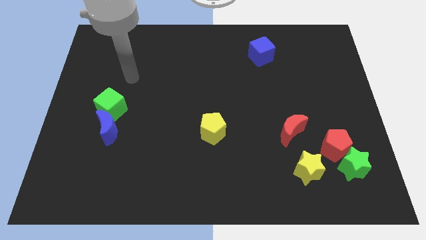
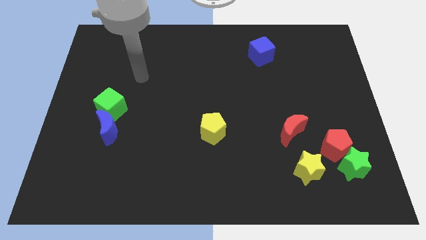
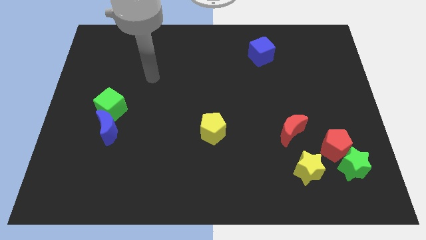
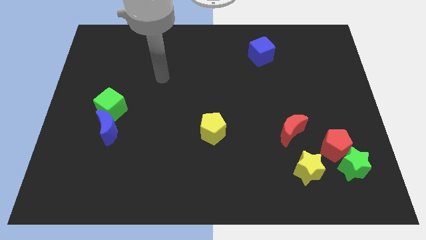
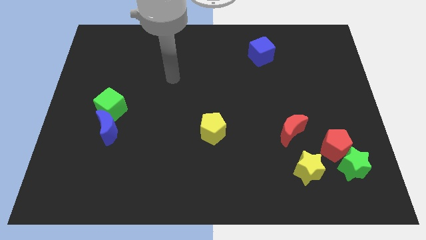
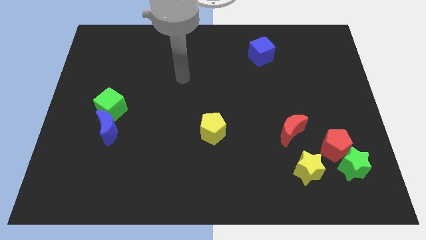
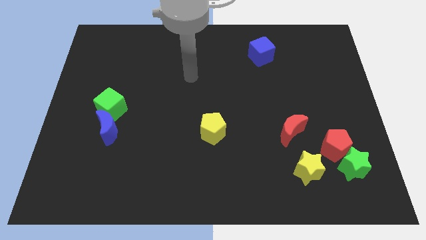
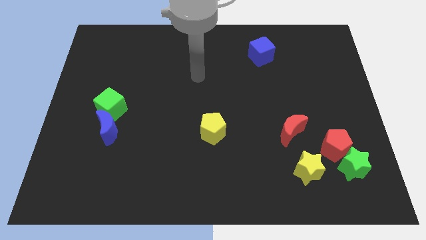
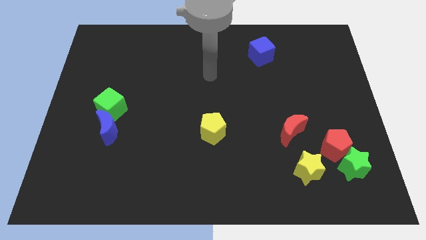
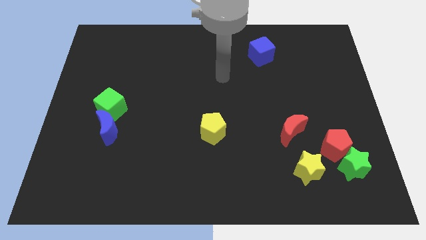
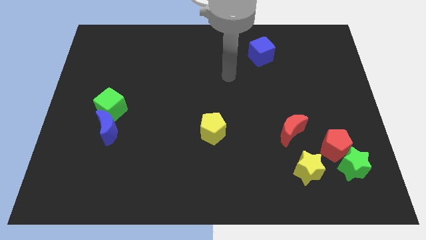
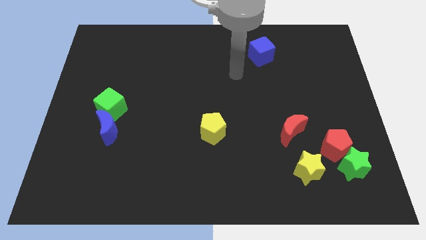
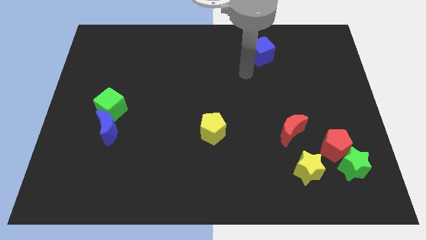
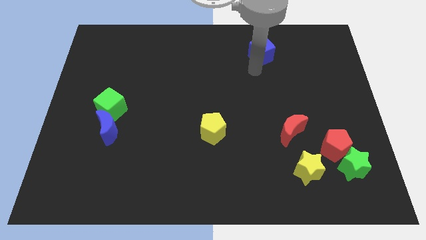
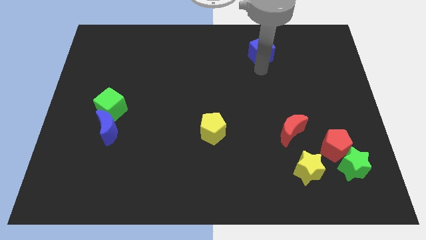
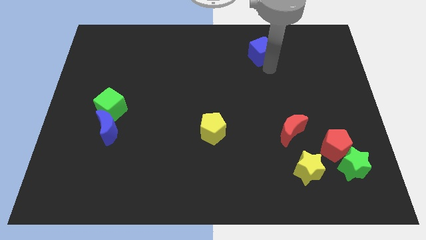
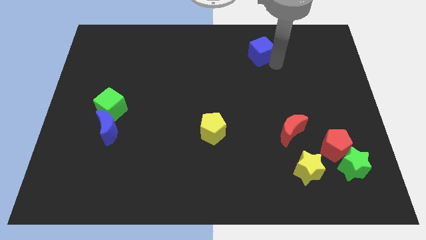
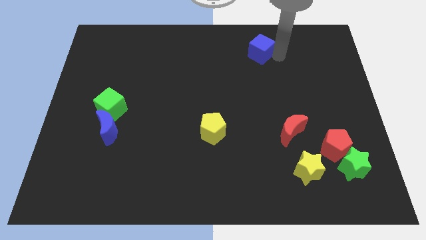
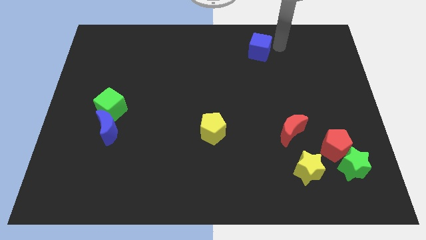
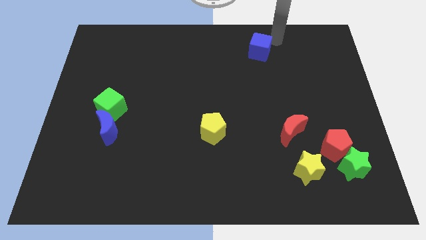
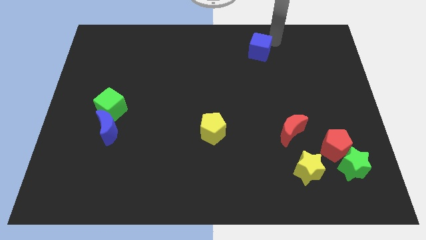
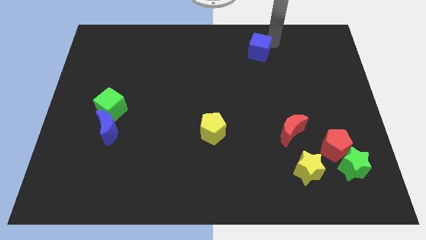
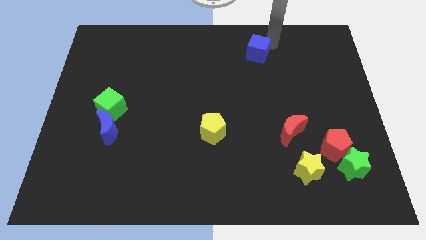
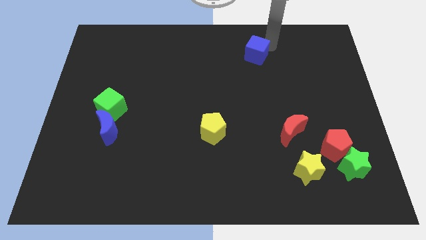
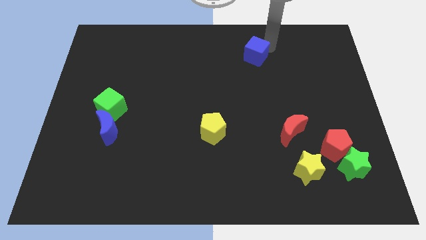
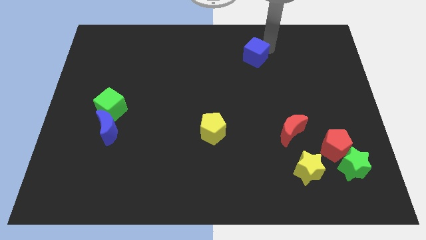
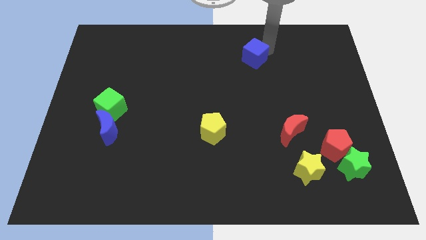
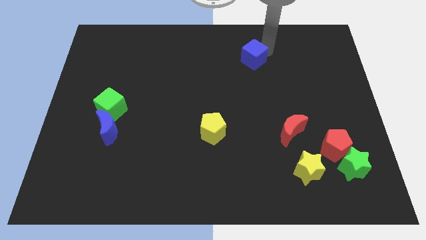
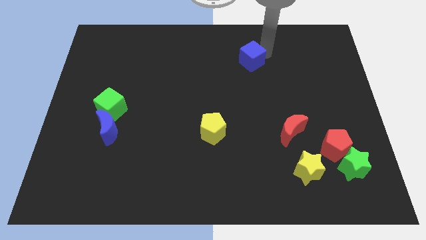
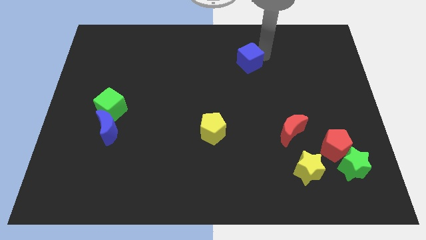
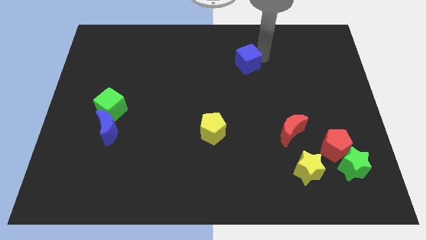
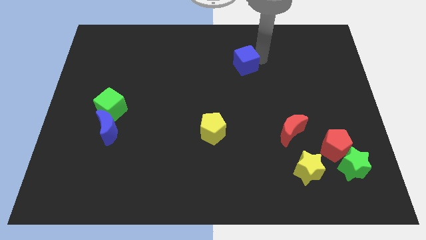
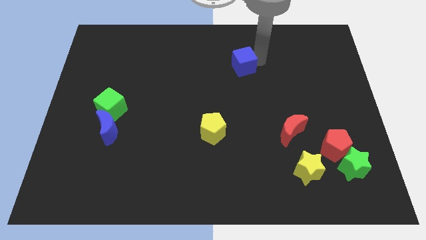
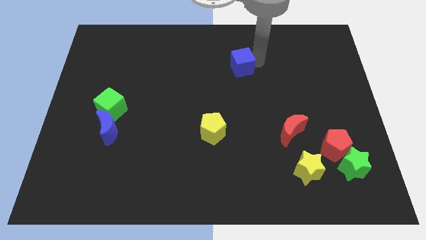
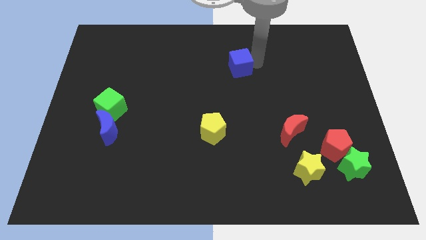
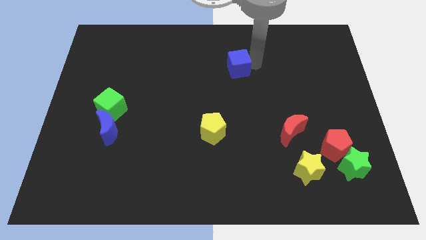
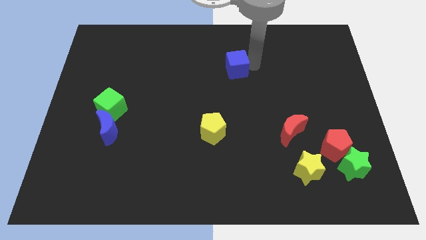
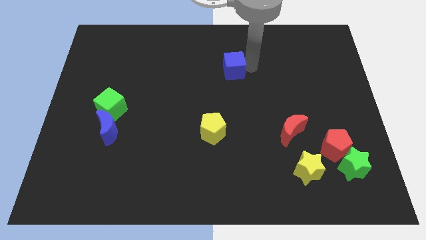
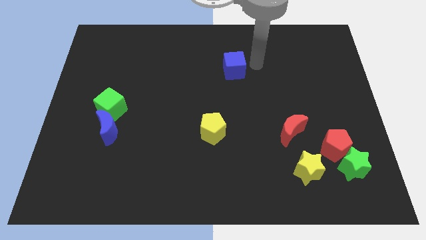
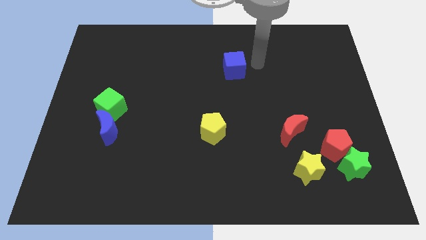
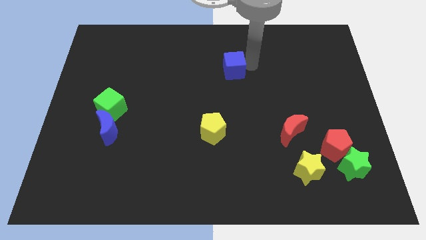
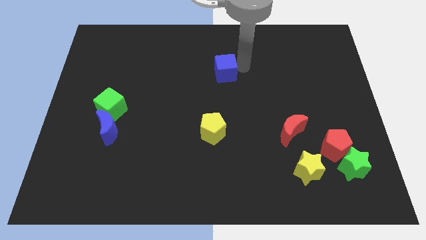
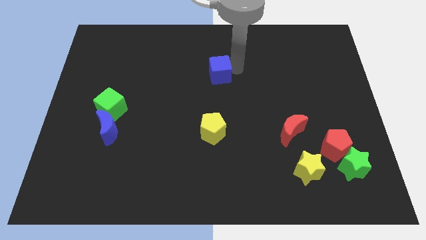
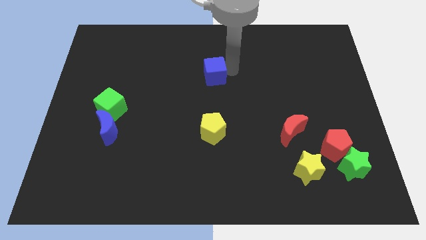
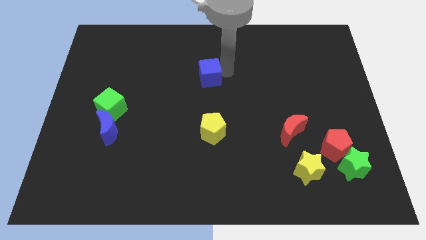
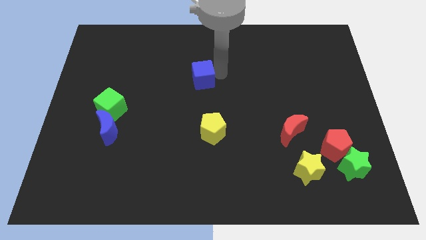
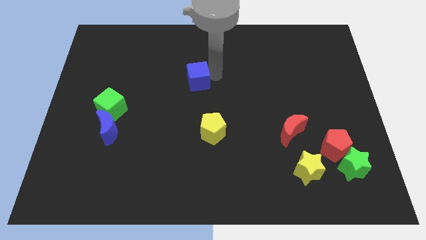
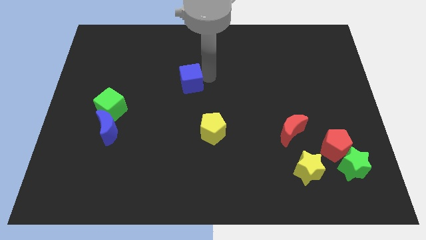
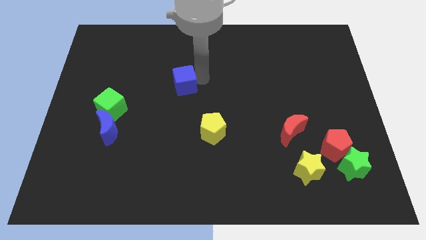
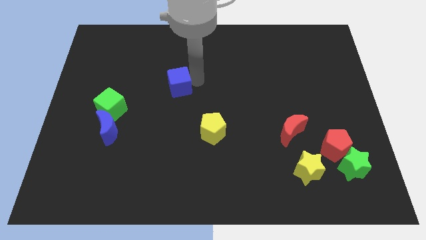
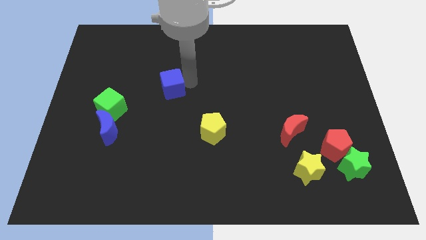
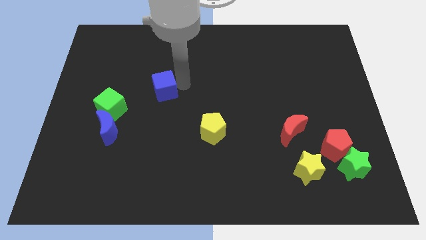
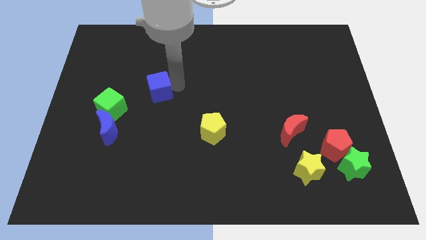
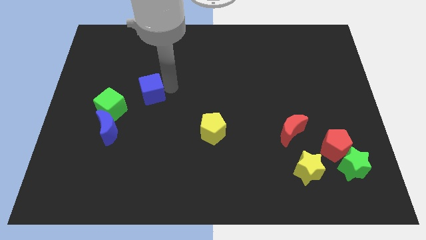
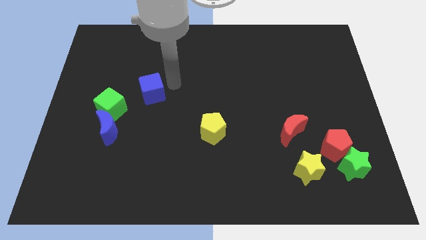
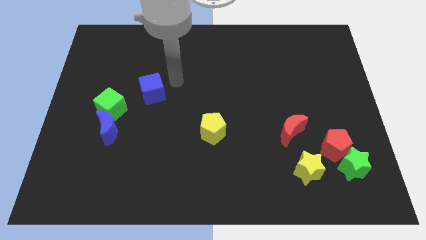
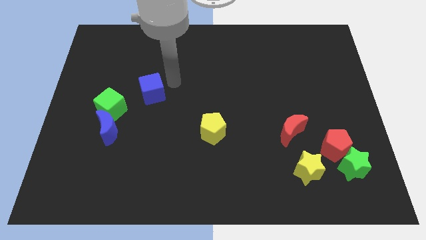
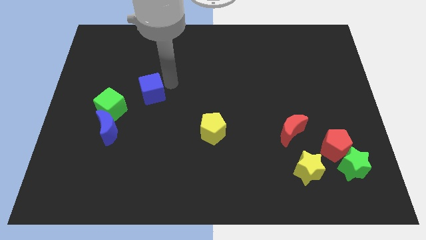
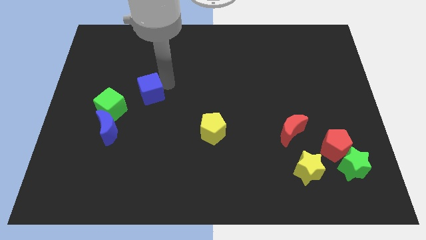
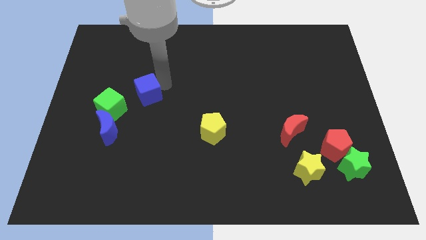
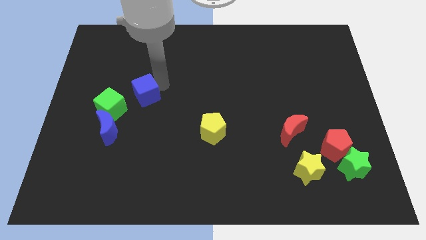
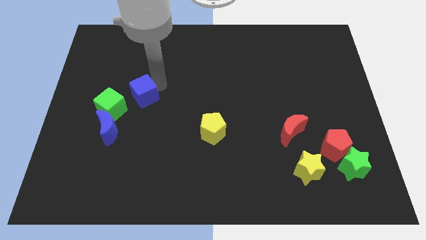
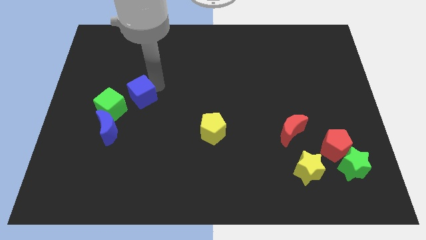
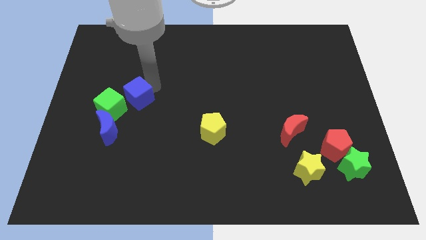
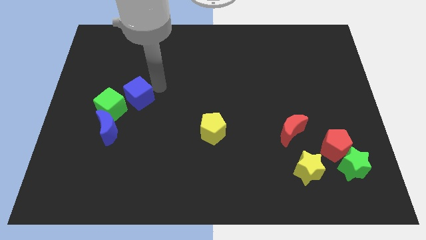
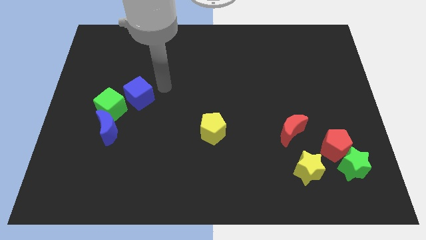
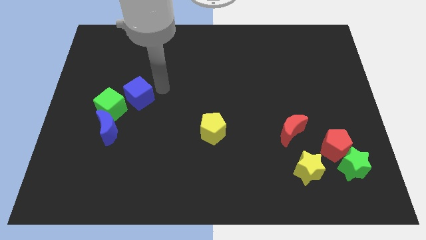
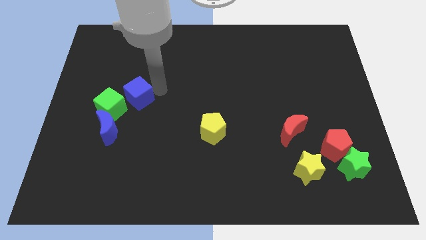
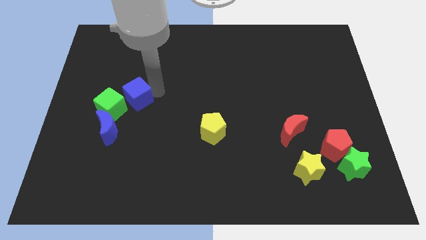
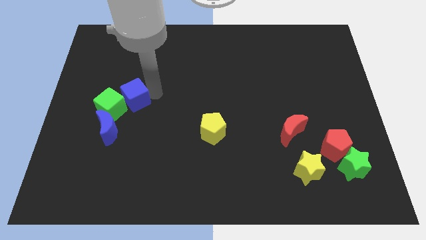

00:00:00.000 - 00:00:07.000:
put the blue cube next to the green cube

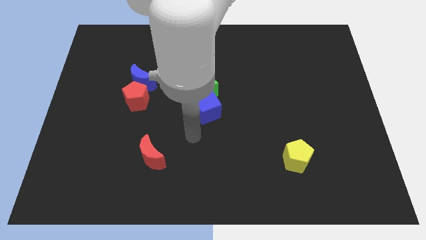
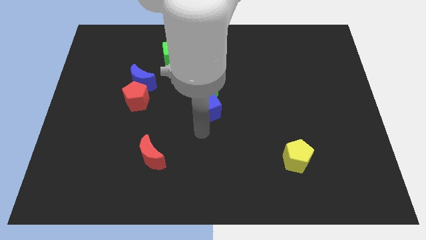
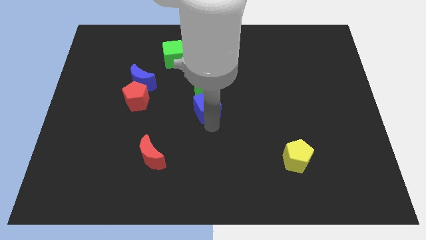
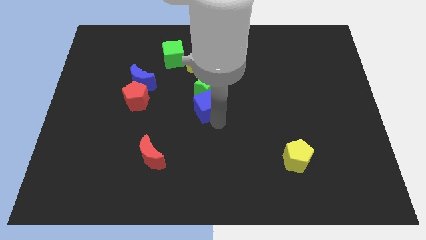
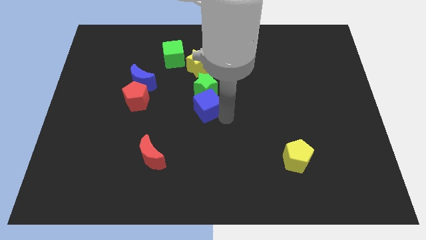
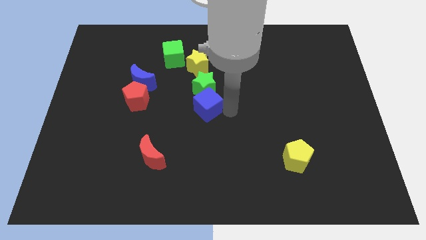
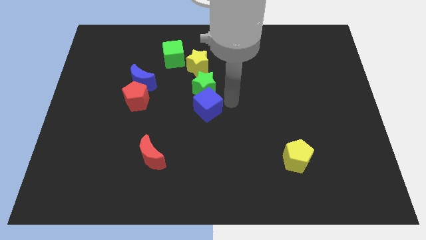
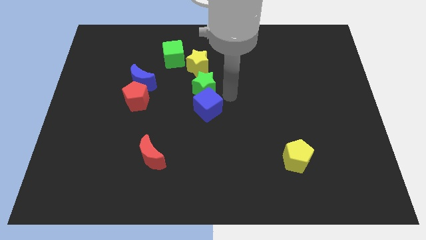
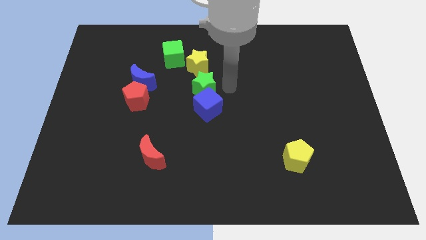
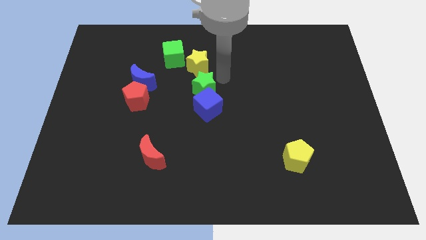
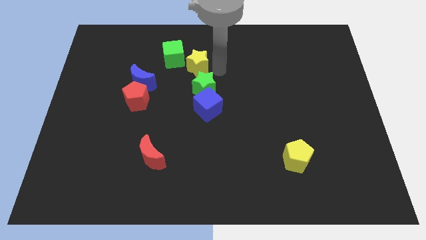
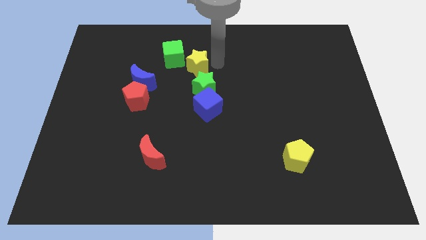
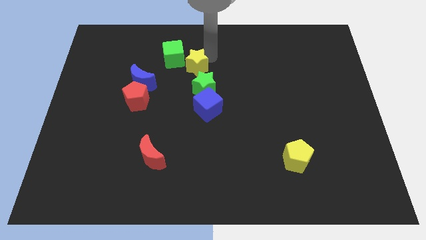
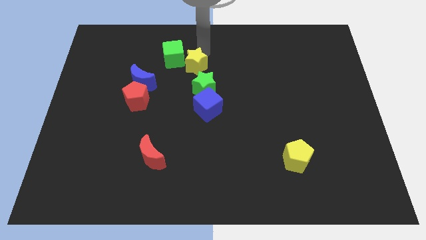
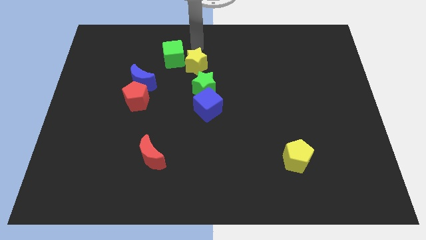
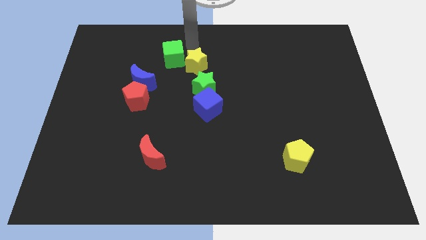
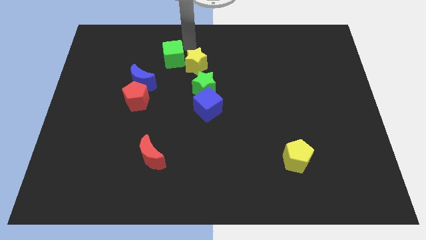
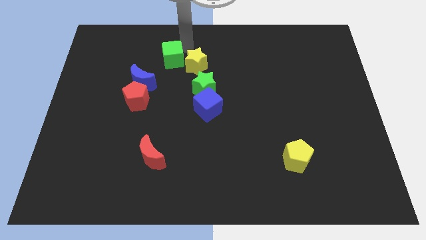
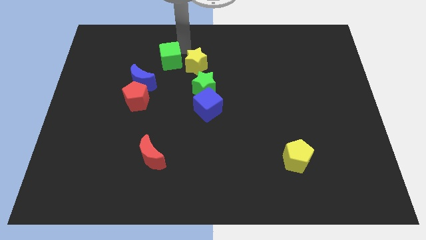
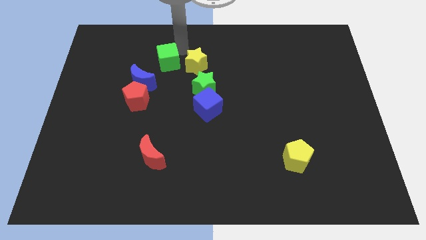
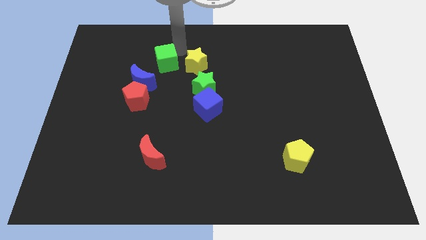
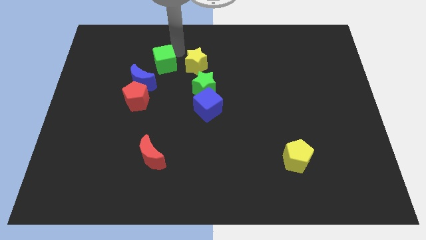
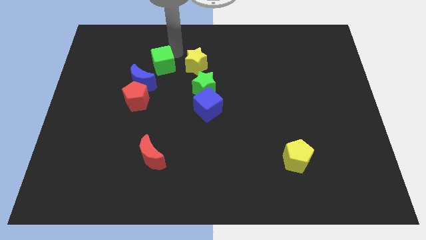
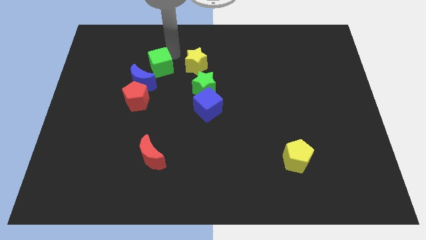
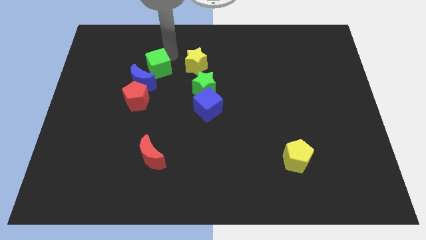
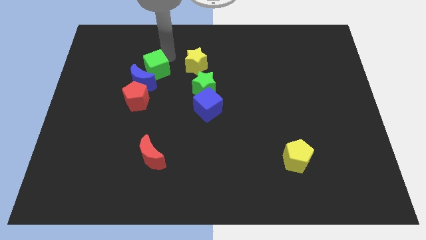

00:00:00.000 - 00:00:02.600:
move the green cube towards the blue moon
